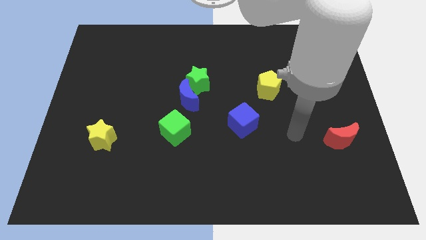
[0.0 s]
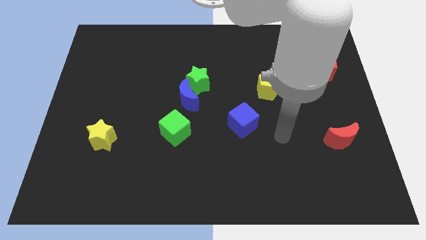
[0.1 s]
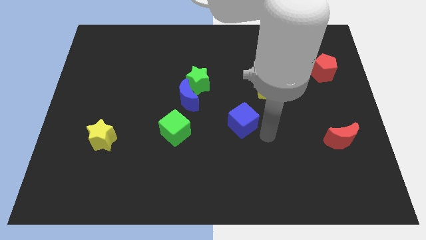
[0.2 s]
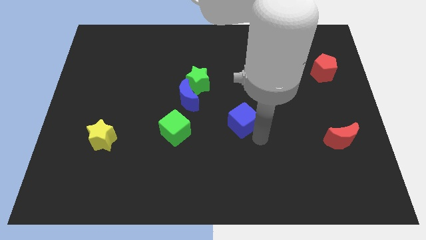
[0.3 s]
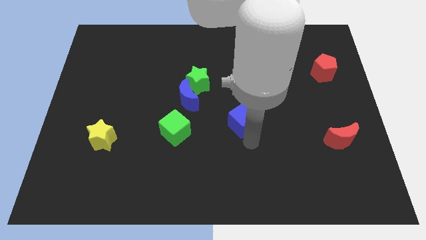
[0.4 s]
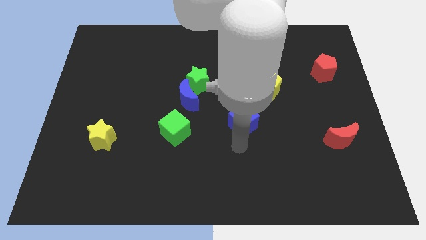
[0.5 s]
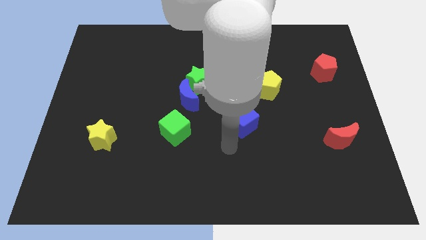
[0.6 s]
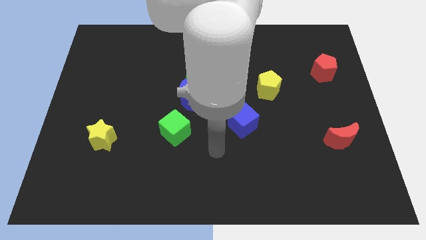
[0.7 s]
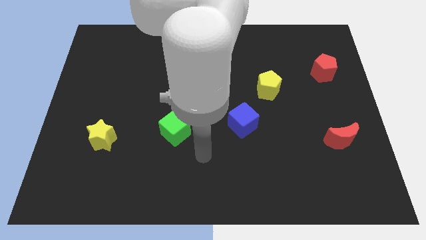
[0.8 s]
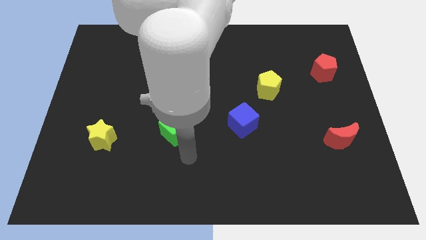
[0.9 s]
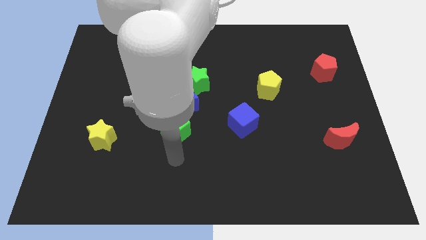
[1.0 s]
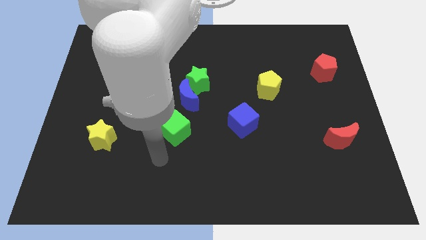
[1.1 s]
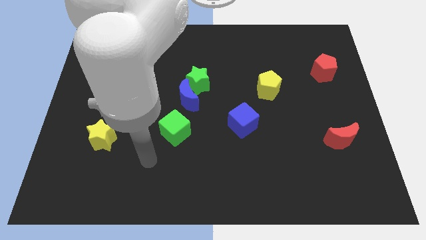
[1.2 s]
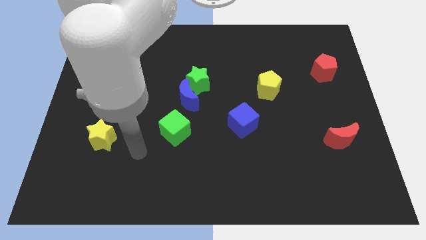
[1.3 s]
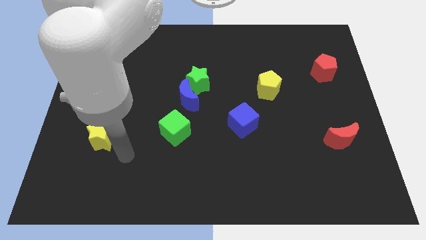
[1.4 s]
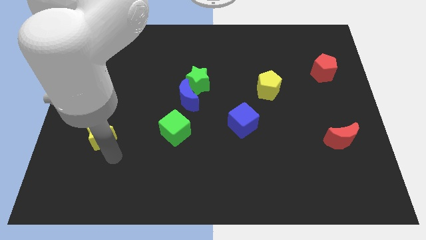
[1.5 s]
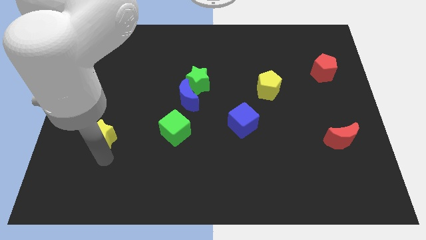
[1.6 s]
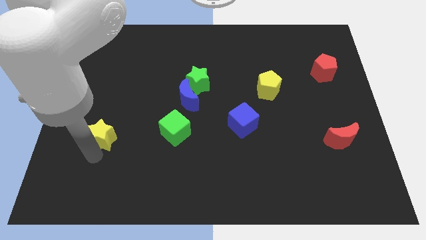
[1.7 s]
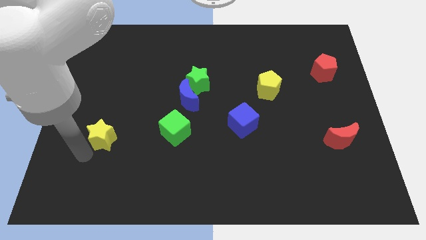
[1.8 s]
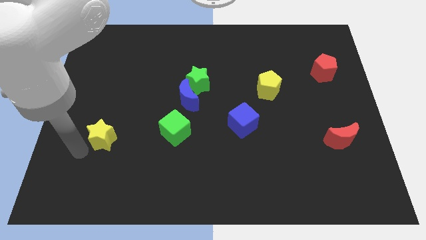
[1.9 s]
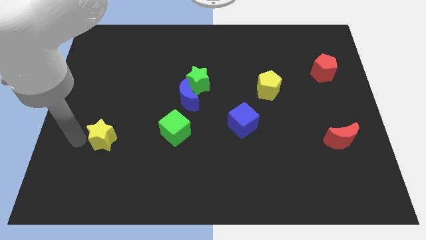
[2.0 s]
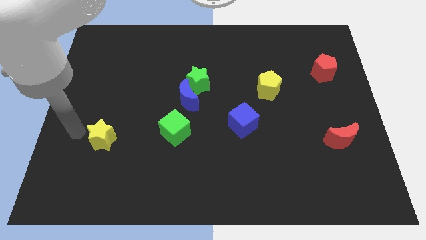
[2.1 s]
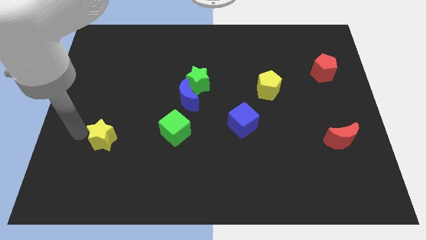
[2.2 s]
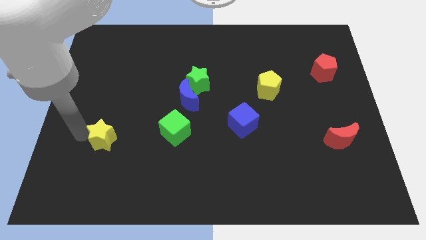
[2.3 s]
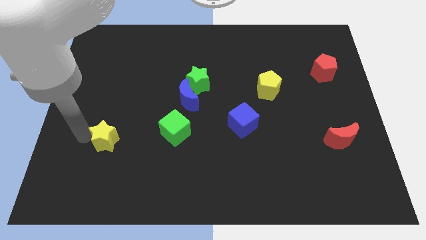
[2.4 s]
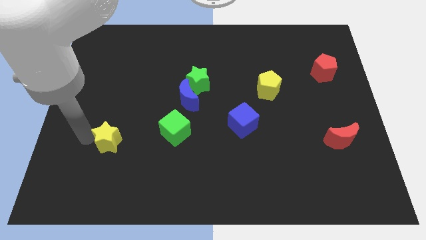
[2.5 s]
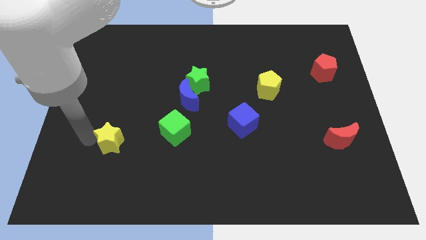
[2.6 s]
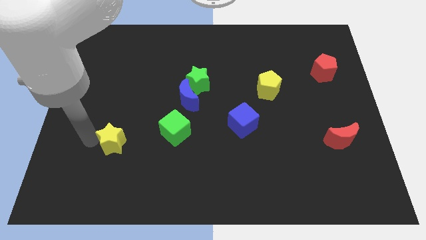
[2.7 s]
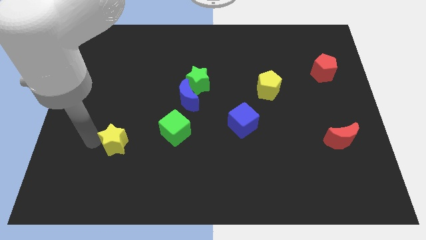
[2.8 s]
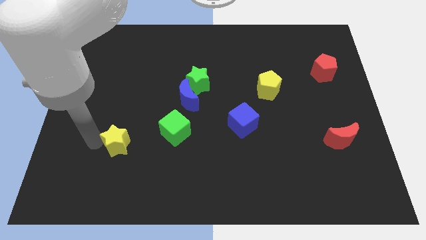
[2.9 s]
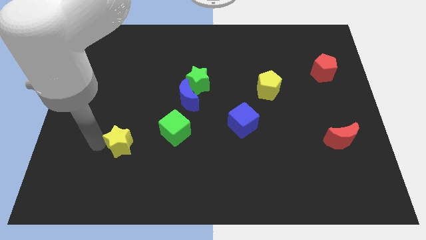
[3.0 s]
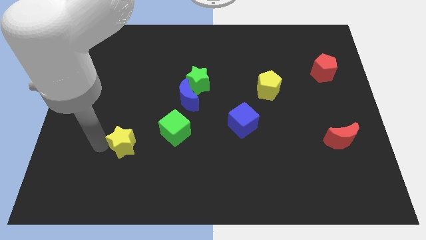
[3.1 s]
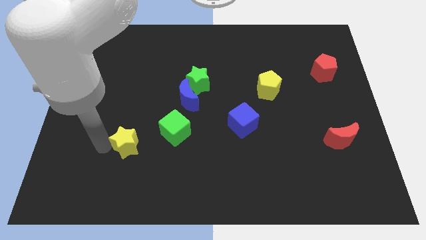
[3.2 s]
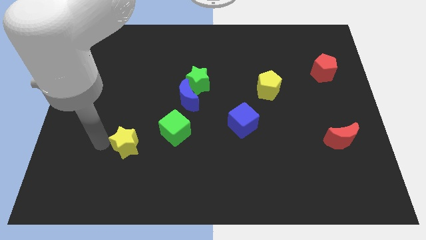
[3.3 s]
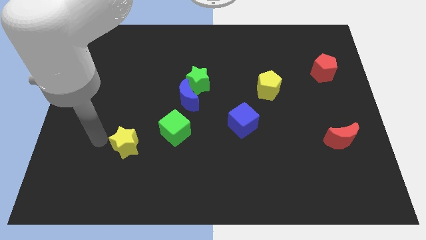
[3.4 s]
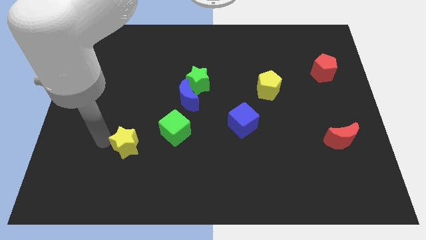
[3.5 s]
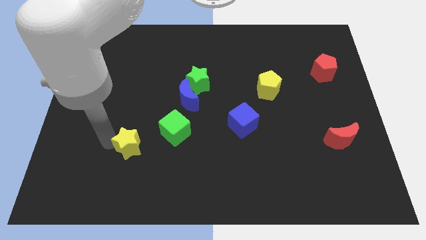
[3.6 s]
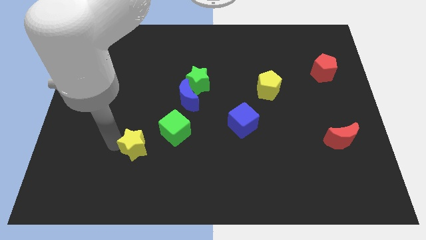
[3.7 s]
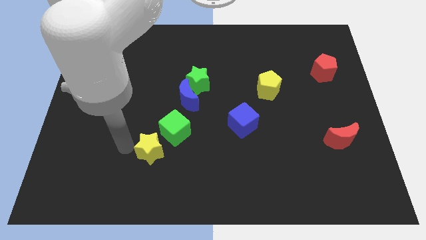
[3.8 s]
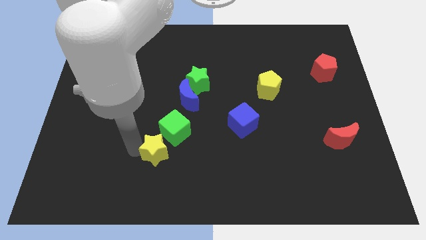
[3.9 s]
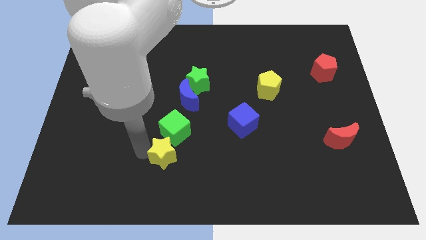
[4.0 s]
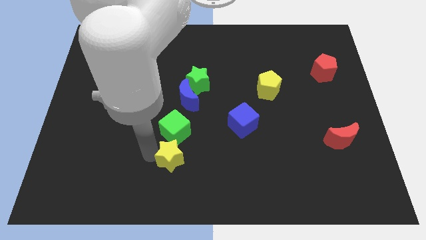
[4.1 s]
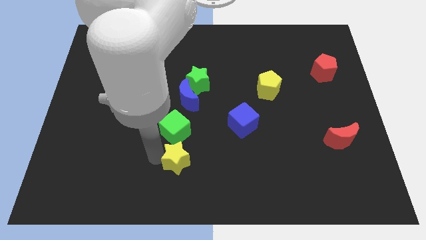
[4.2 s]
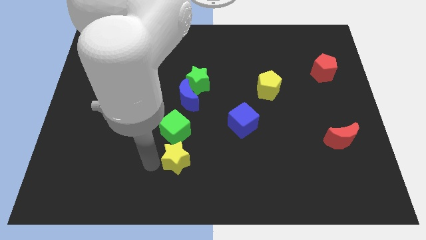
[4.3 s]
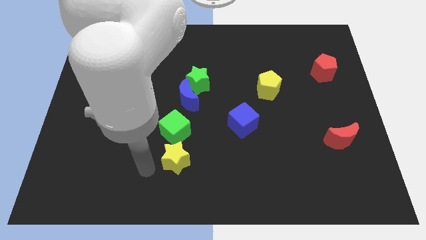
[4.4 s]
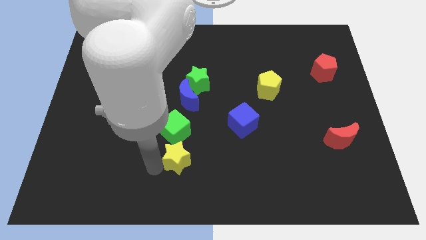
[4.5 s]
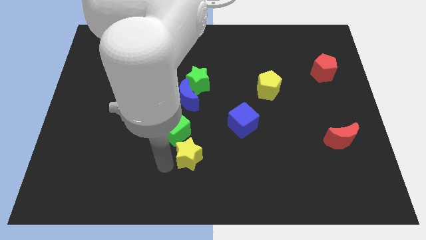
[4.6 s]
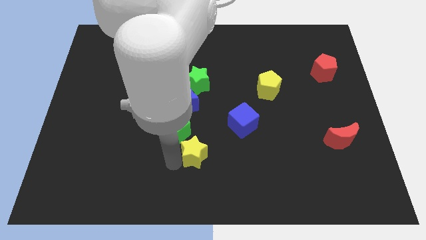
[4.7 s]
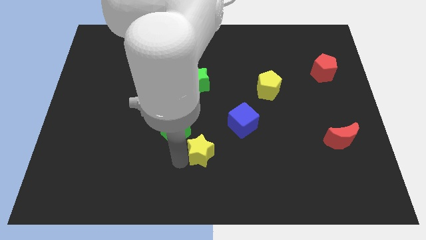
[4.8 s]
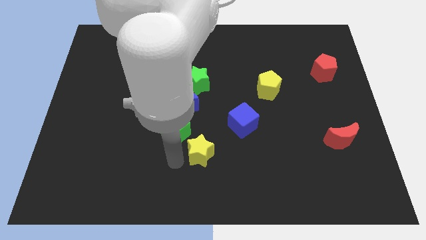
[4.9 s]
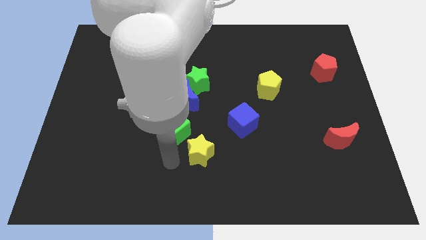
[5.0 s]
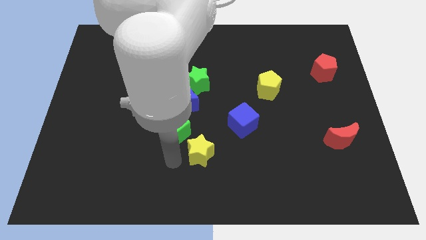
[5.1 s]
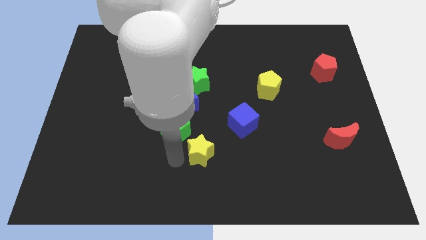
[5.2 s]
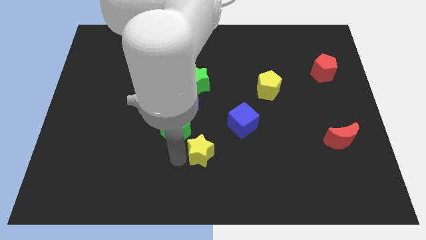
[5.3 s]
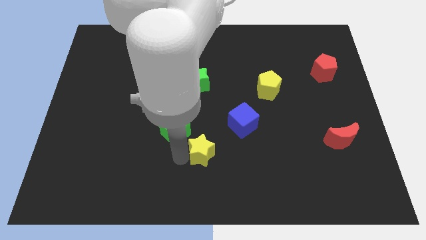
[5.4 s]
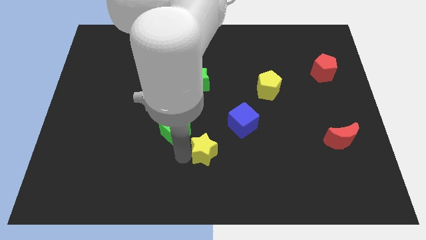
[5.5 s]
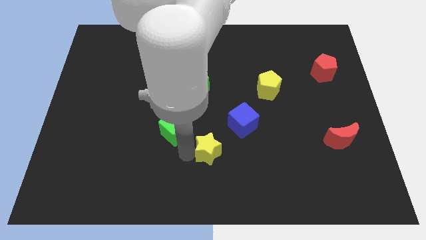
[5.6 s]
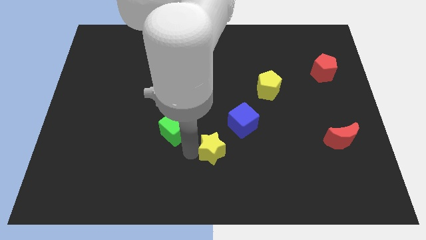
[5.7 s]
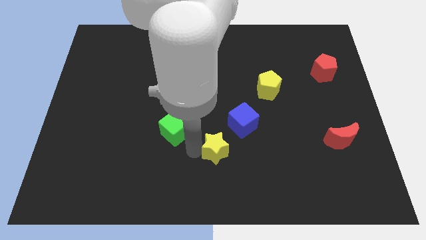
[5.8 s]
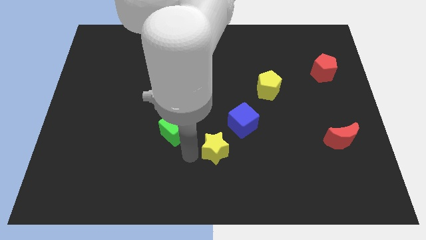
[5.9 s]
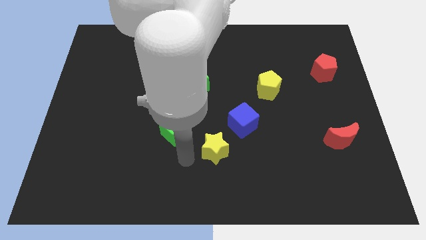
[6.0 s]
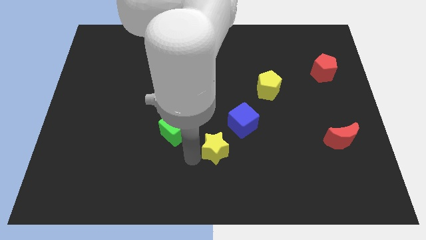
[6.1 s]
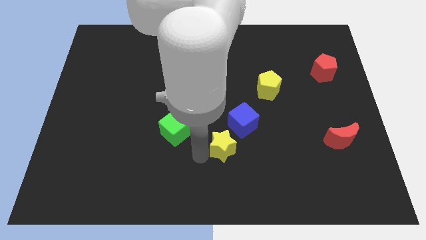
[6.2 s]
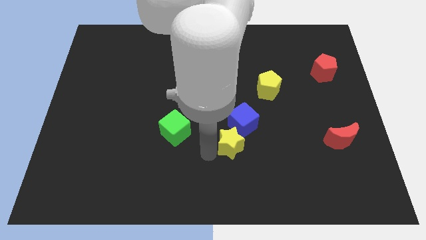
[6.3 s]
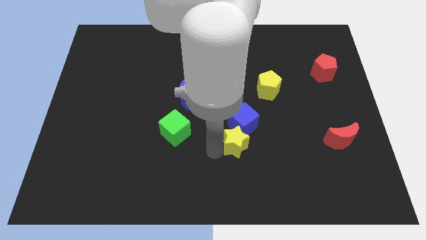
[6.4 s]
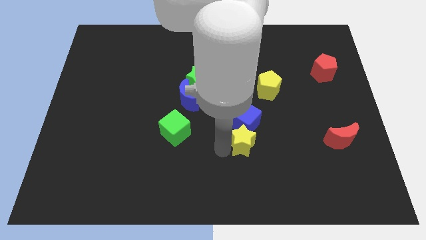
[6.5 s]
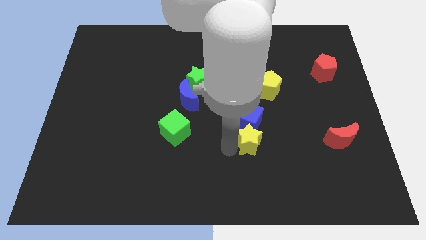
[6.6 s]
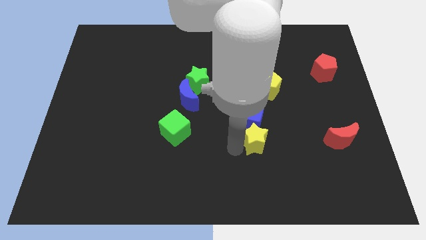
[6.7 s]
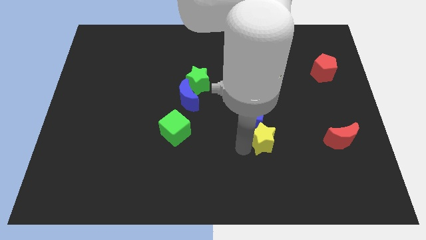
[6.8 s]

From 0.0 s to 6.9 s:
slide the yellow star to the bottom of the yellow pentagon
